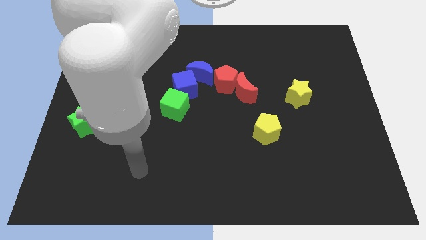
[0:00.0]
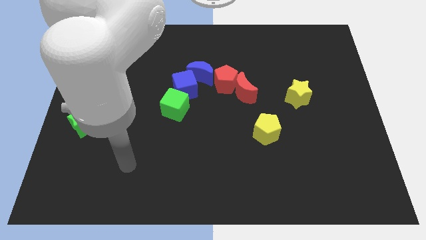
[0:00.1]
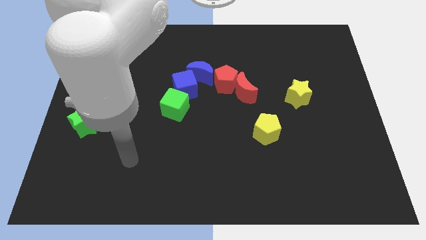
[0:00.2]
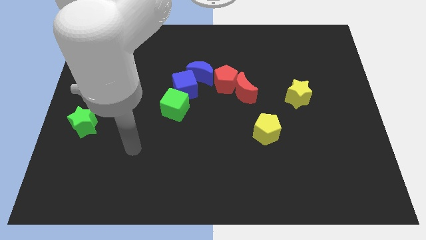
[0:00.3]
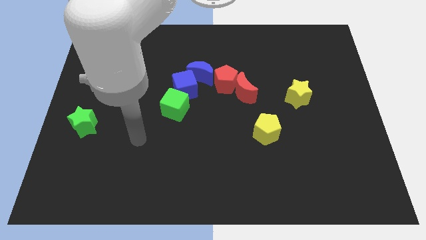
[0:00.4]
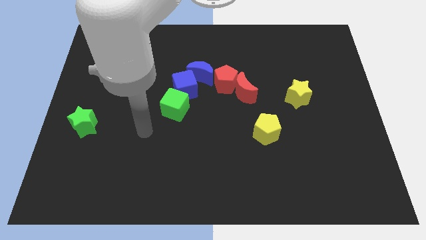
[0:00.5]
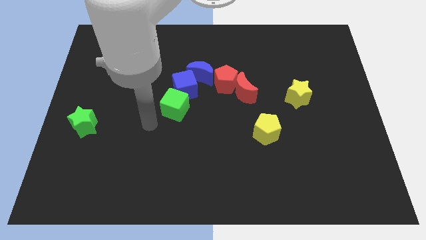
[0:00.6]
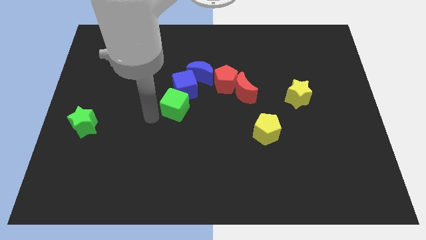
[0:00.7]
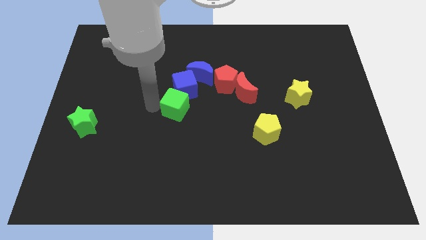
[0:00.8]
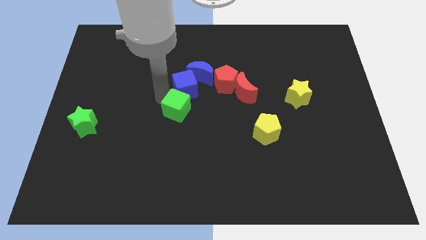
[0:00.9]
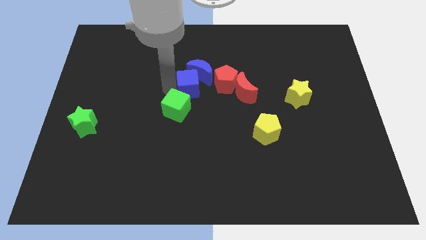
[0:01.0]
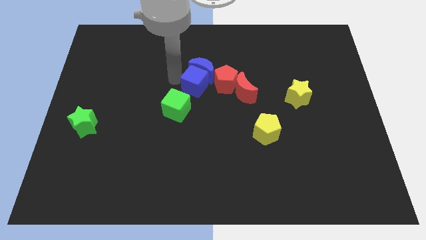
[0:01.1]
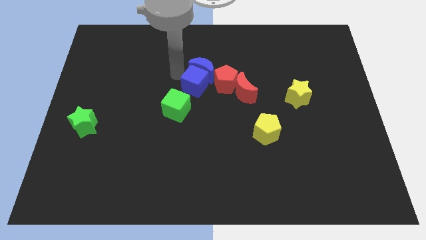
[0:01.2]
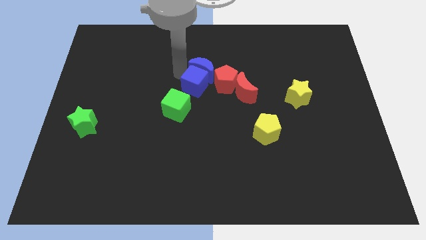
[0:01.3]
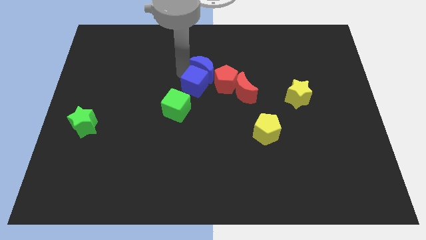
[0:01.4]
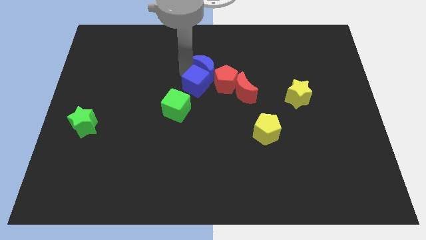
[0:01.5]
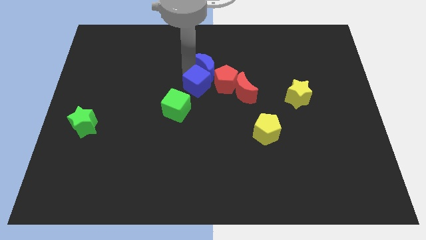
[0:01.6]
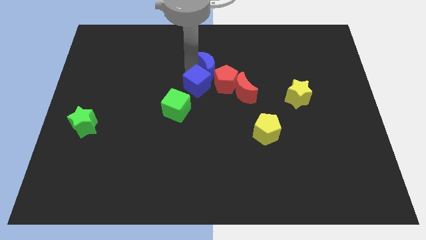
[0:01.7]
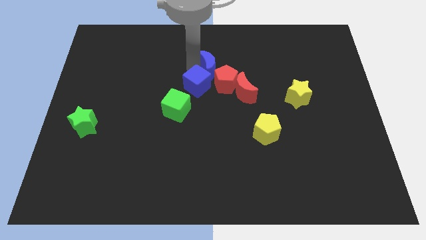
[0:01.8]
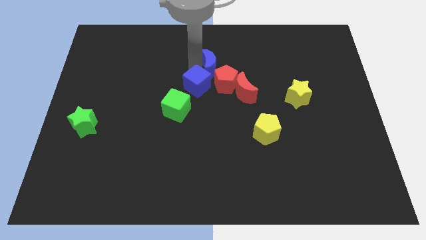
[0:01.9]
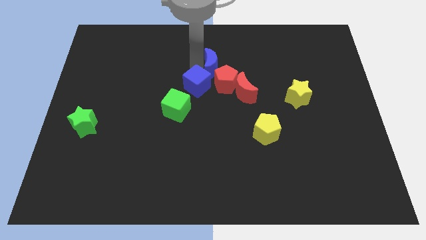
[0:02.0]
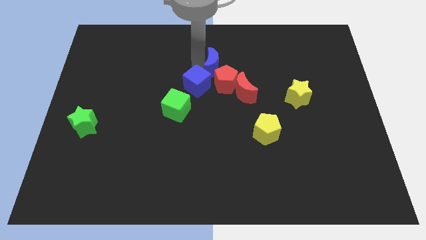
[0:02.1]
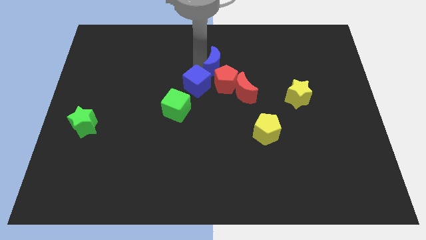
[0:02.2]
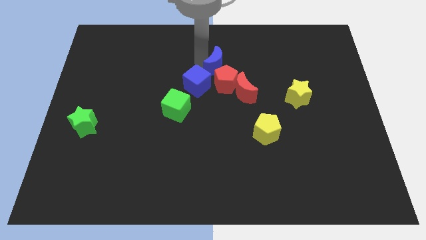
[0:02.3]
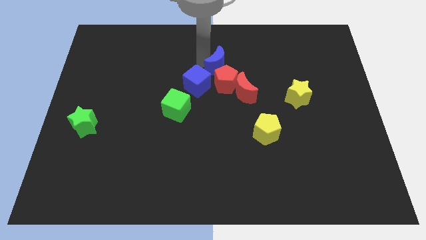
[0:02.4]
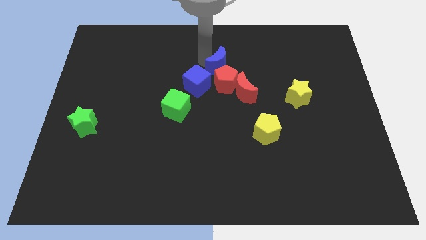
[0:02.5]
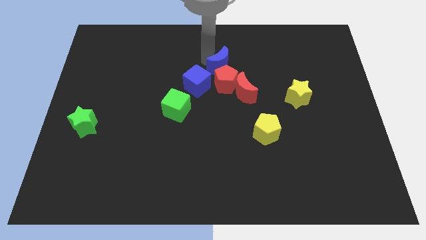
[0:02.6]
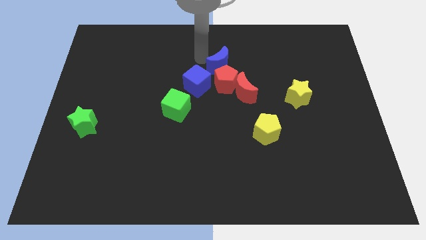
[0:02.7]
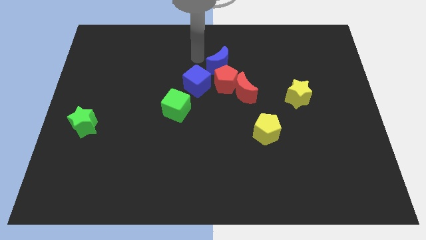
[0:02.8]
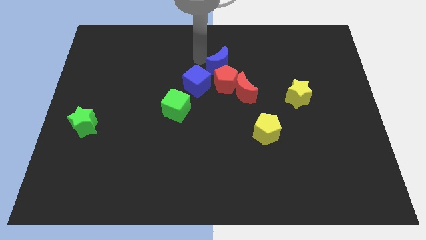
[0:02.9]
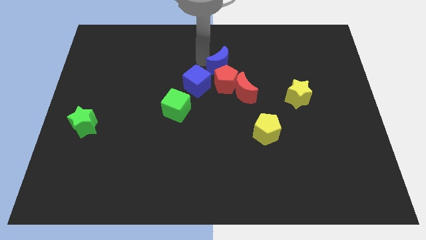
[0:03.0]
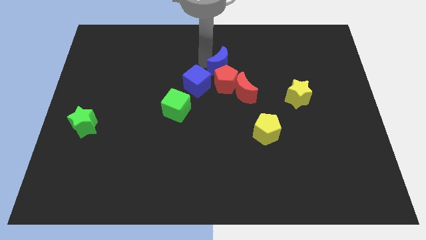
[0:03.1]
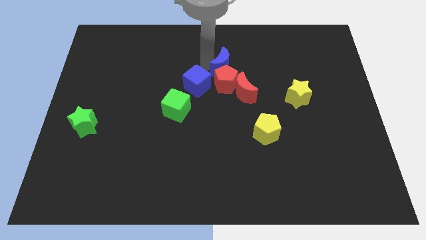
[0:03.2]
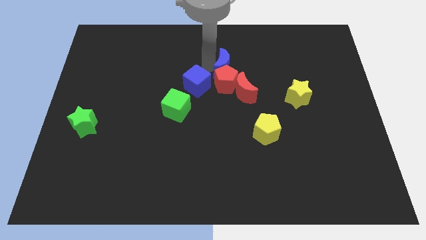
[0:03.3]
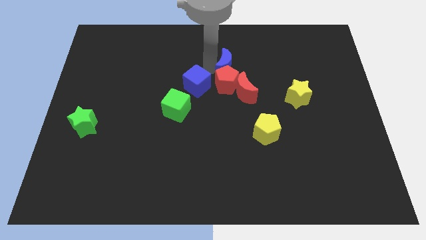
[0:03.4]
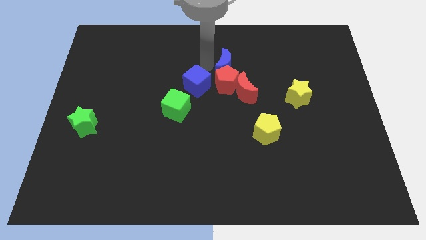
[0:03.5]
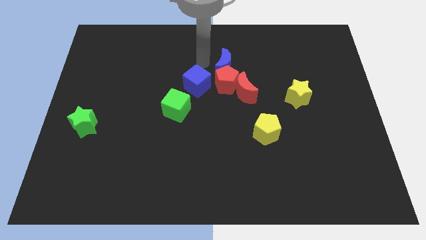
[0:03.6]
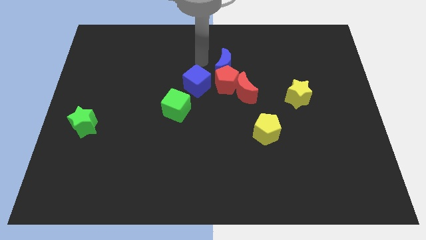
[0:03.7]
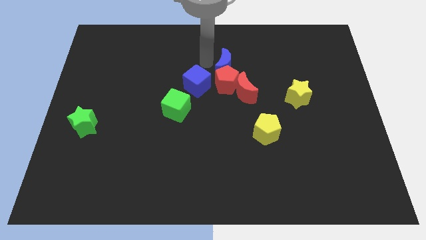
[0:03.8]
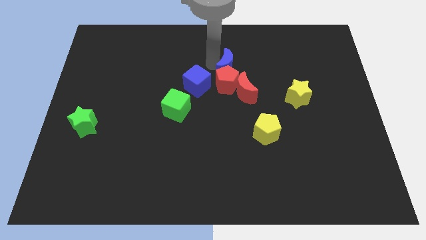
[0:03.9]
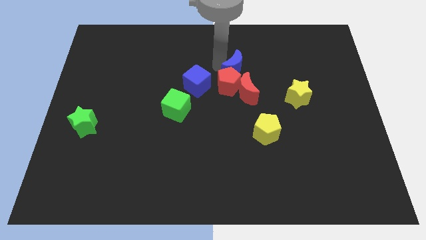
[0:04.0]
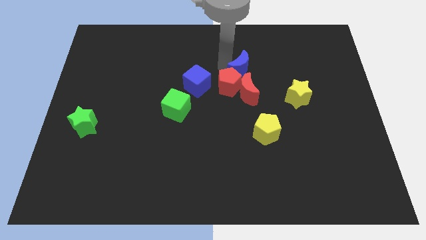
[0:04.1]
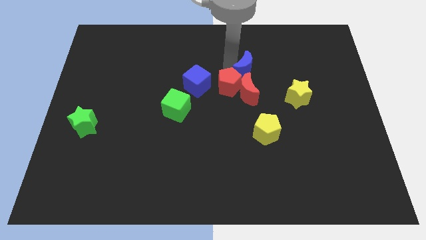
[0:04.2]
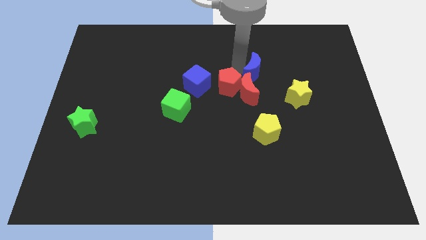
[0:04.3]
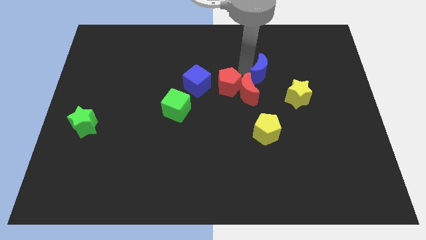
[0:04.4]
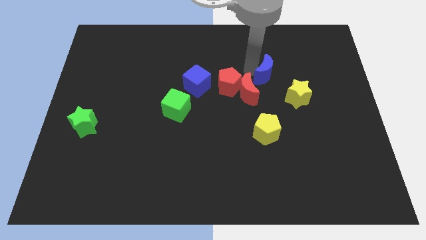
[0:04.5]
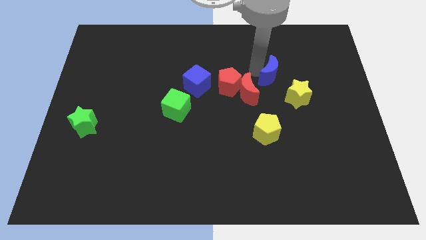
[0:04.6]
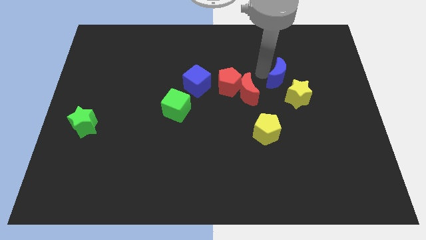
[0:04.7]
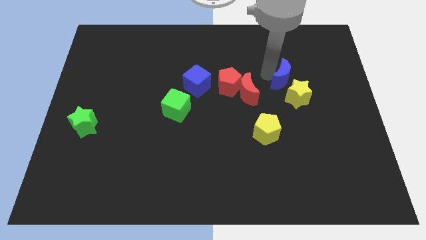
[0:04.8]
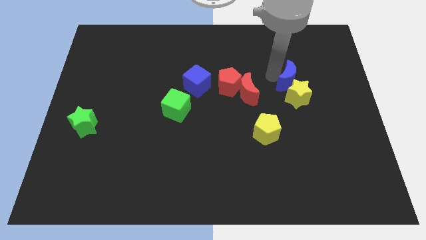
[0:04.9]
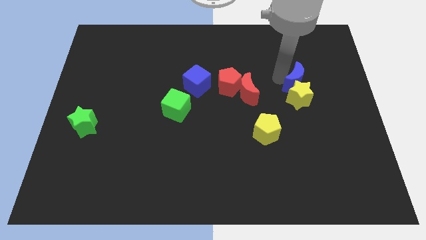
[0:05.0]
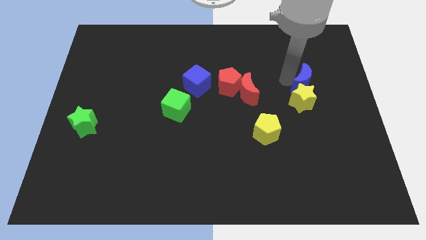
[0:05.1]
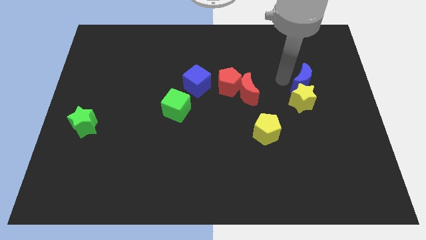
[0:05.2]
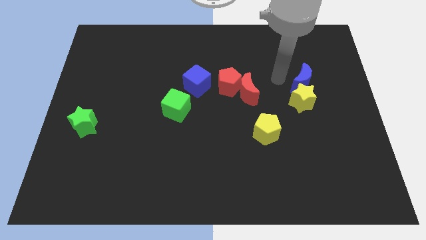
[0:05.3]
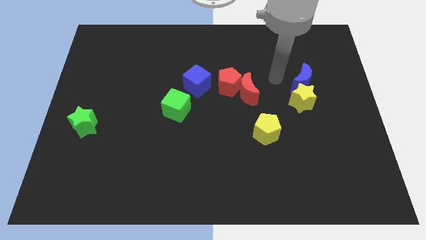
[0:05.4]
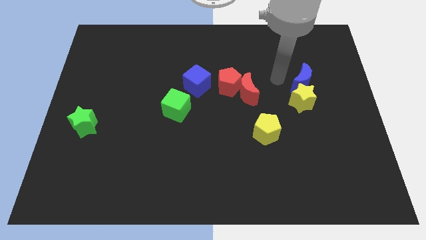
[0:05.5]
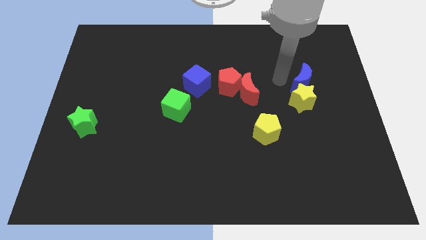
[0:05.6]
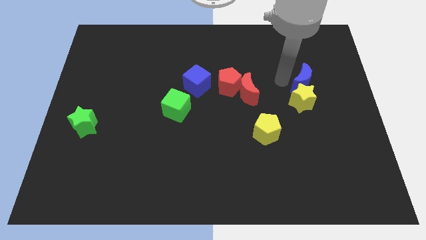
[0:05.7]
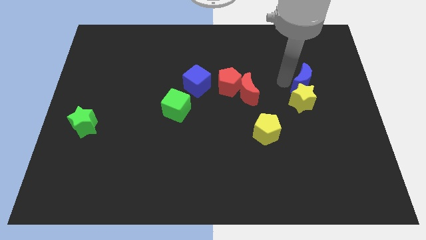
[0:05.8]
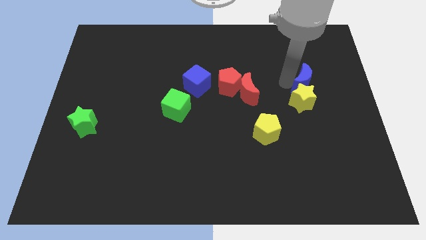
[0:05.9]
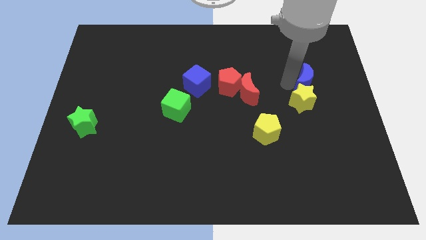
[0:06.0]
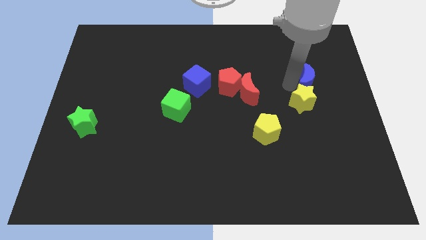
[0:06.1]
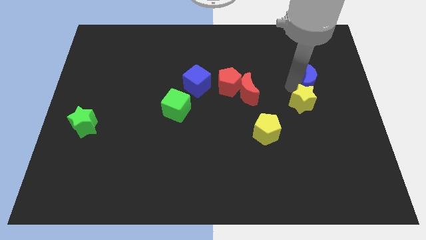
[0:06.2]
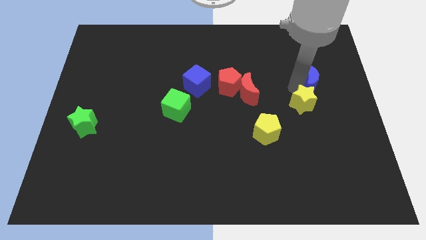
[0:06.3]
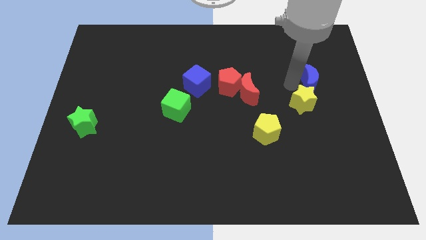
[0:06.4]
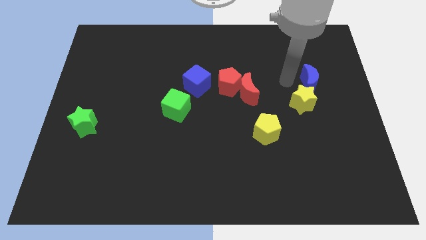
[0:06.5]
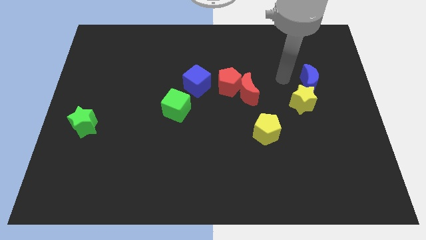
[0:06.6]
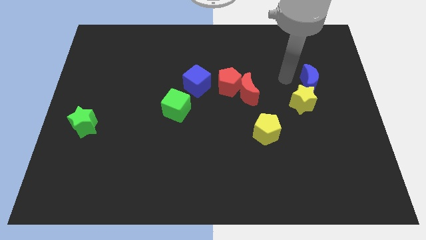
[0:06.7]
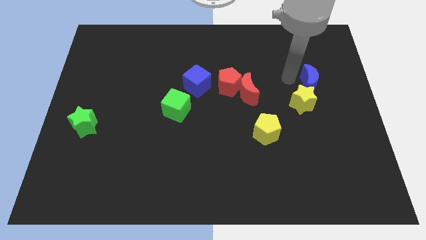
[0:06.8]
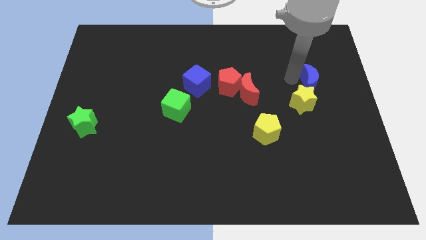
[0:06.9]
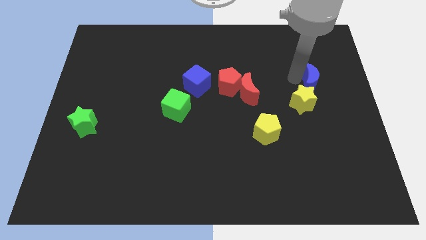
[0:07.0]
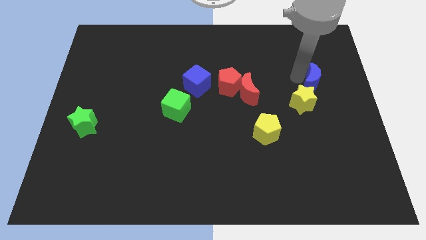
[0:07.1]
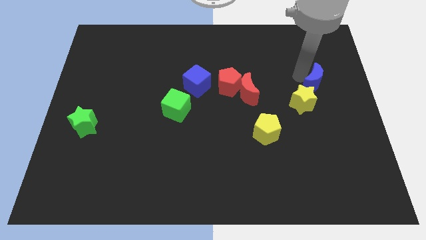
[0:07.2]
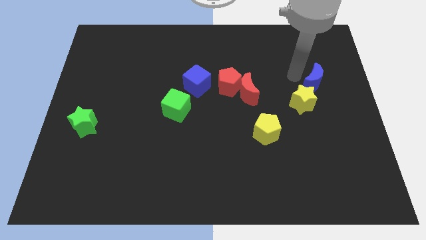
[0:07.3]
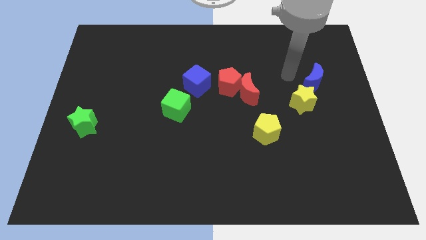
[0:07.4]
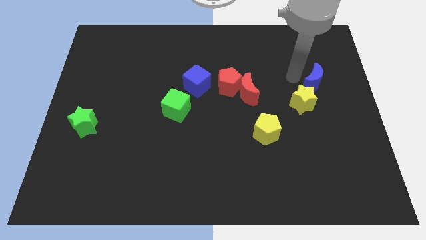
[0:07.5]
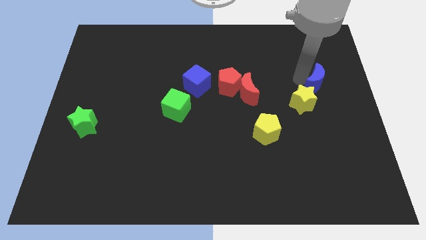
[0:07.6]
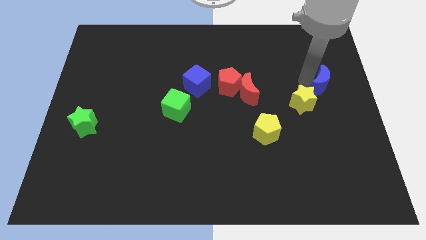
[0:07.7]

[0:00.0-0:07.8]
push the blue moon to the right side of the board
